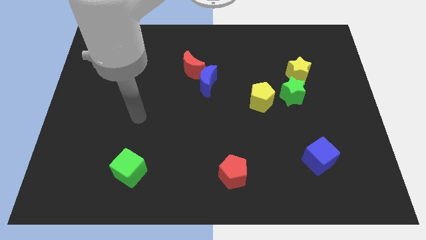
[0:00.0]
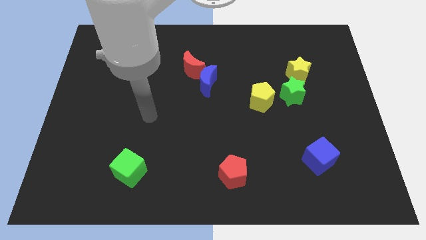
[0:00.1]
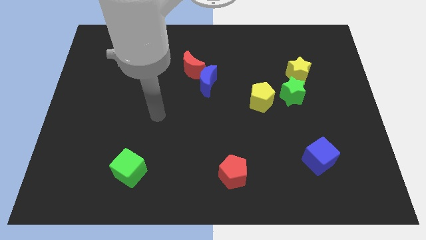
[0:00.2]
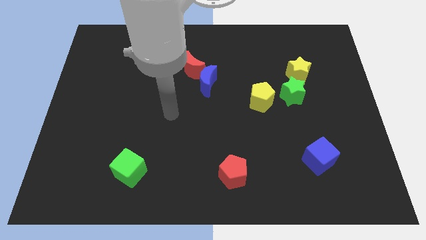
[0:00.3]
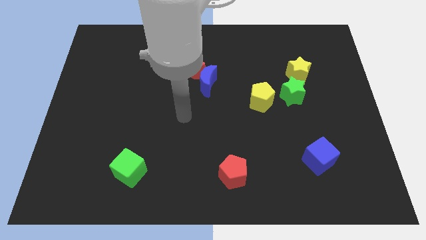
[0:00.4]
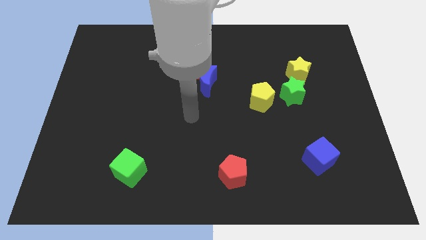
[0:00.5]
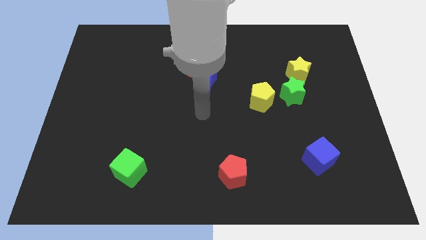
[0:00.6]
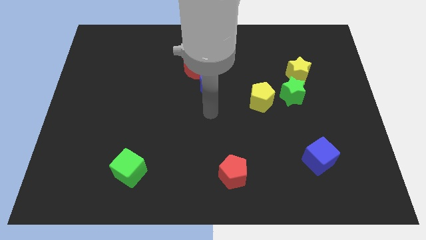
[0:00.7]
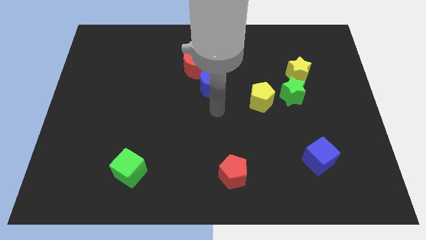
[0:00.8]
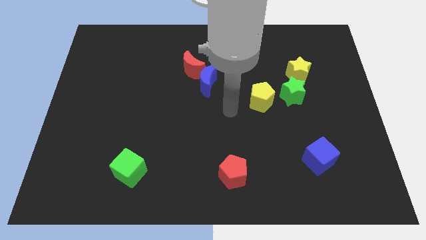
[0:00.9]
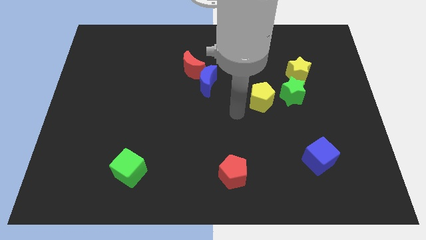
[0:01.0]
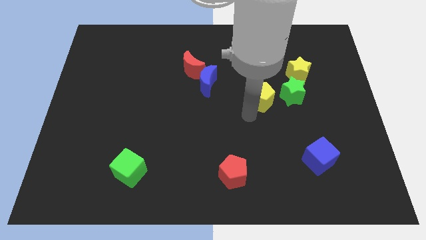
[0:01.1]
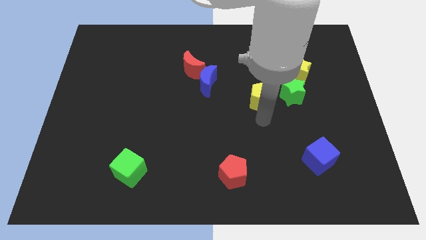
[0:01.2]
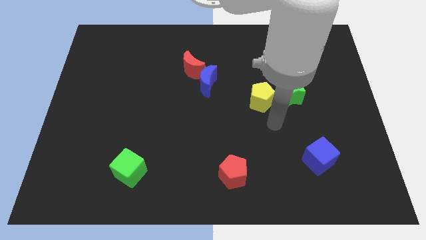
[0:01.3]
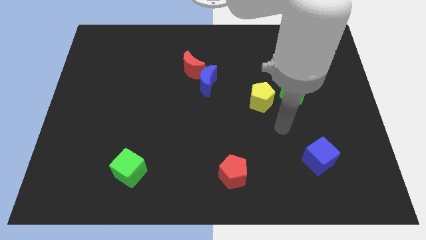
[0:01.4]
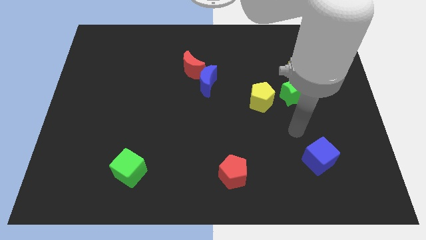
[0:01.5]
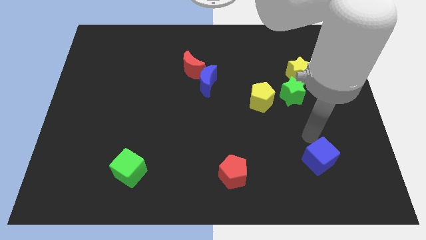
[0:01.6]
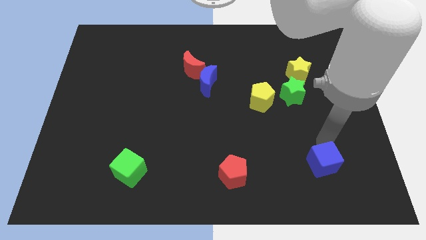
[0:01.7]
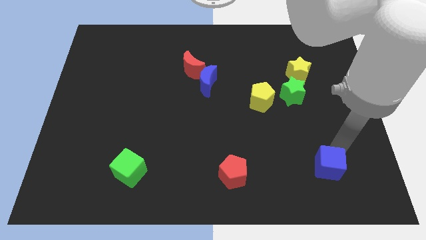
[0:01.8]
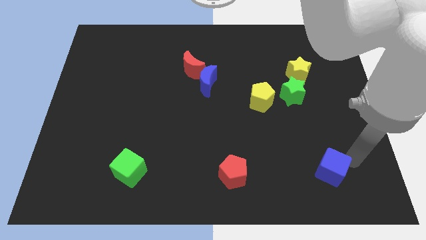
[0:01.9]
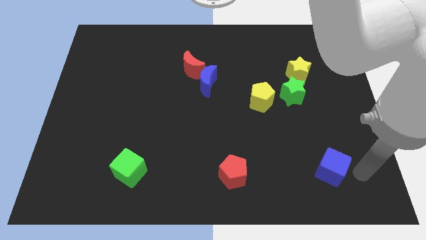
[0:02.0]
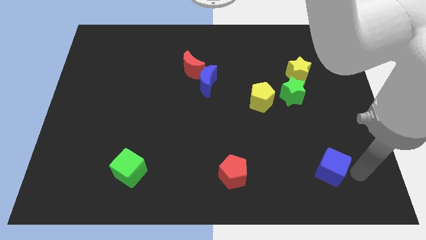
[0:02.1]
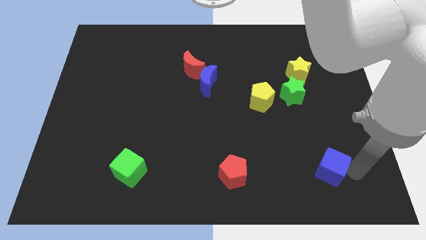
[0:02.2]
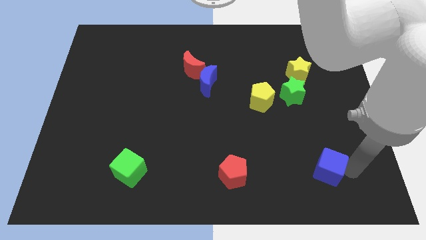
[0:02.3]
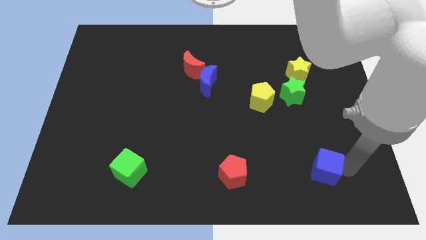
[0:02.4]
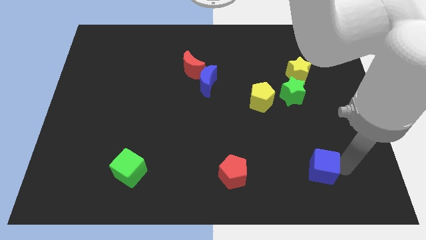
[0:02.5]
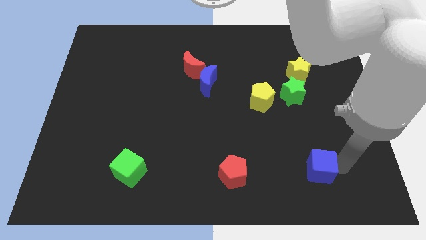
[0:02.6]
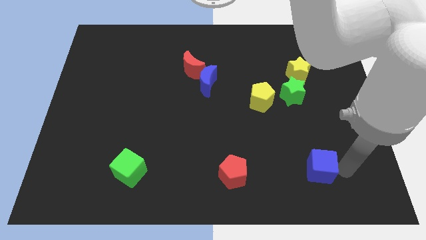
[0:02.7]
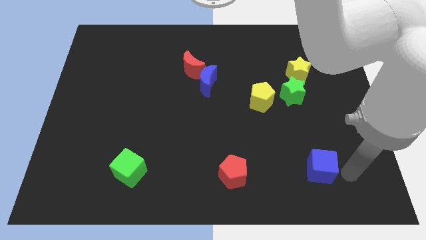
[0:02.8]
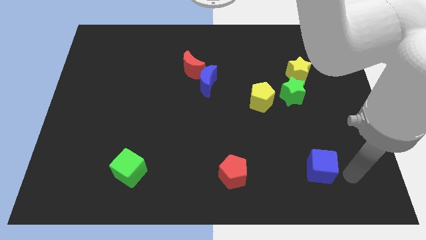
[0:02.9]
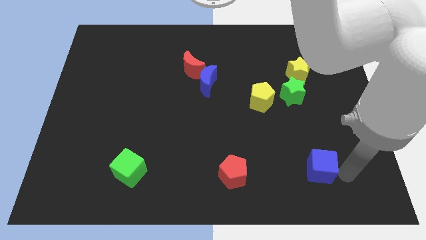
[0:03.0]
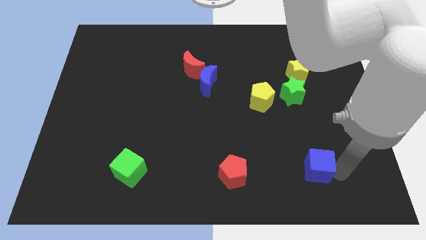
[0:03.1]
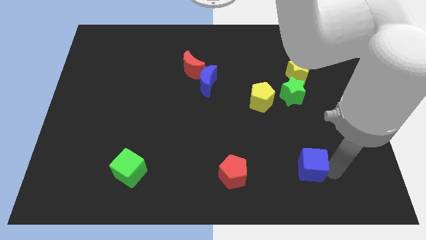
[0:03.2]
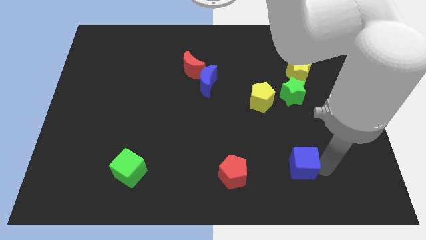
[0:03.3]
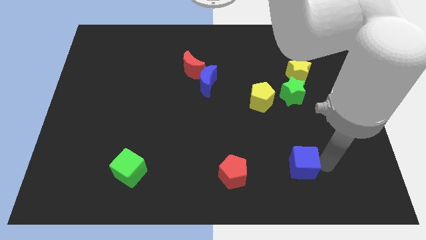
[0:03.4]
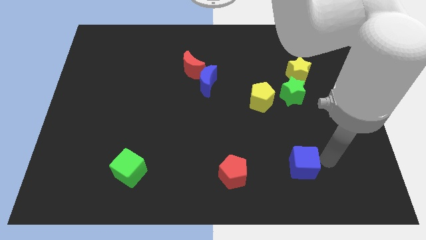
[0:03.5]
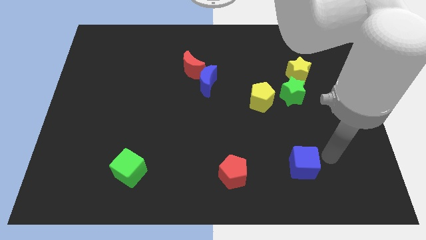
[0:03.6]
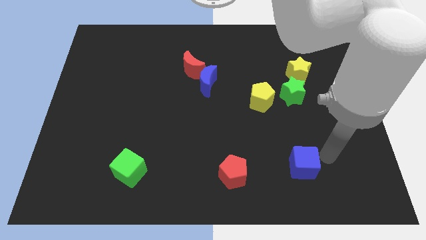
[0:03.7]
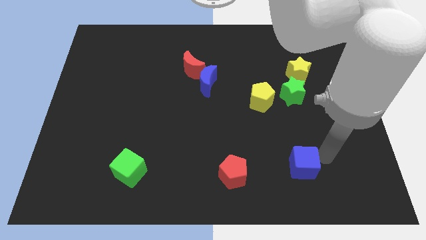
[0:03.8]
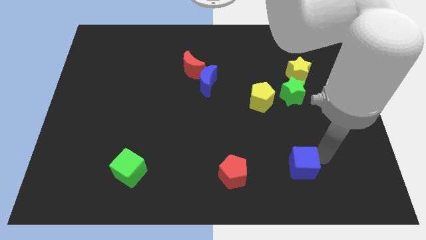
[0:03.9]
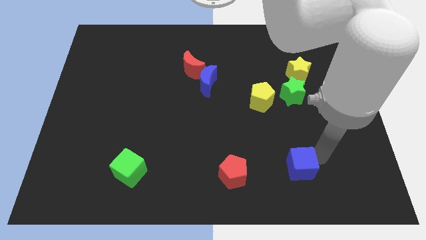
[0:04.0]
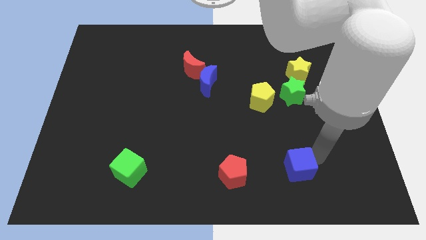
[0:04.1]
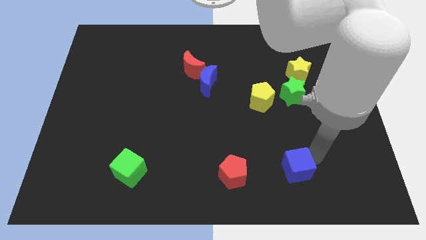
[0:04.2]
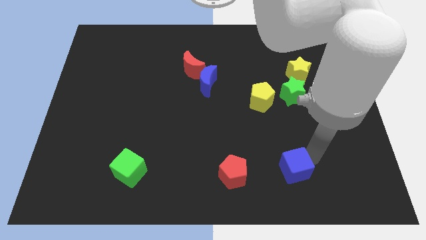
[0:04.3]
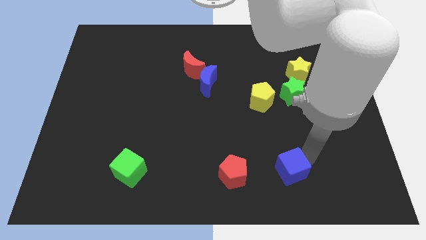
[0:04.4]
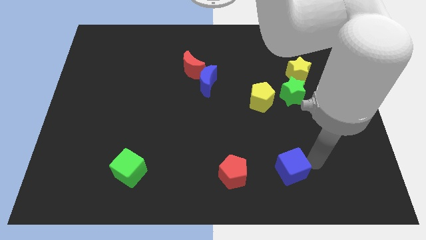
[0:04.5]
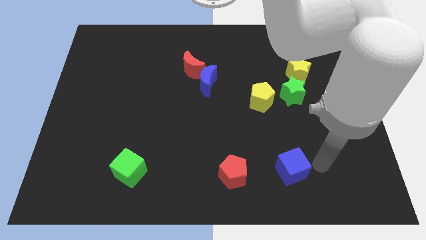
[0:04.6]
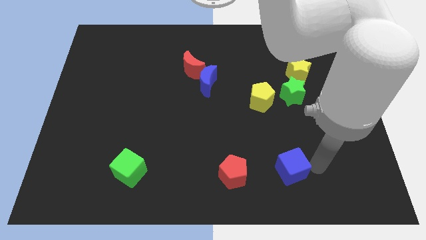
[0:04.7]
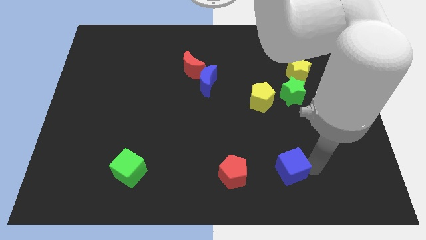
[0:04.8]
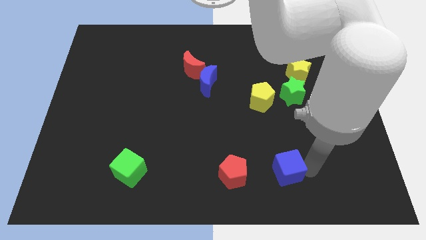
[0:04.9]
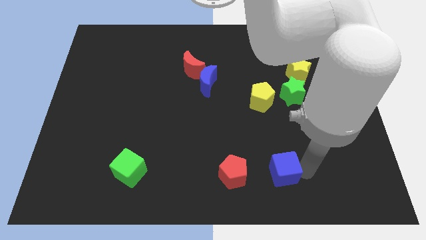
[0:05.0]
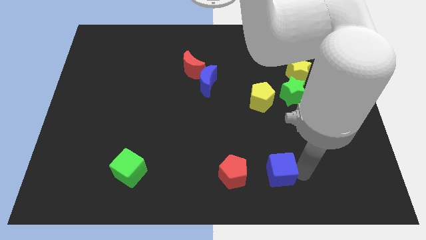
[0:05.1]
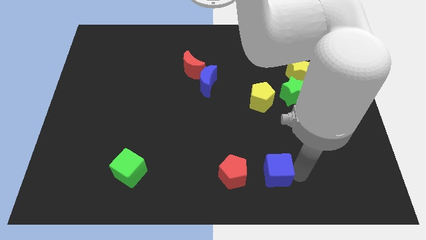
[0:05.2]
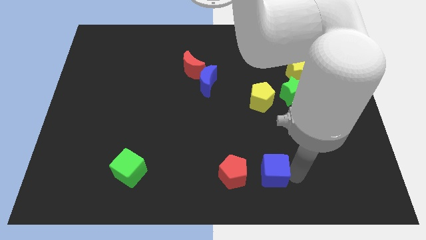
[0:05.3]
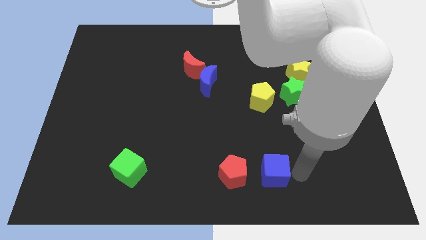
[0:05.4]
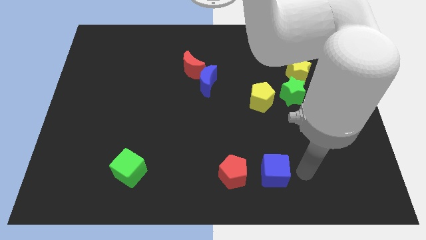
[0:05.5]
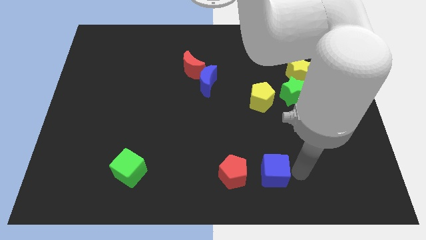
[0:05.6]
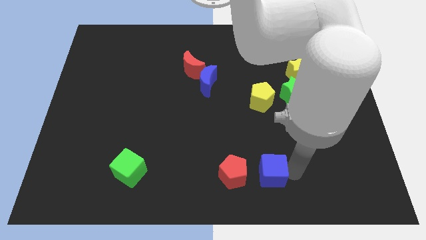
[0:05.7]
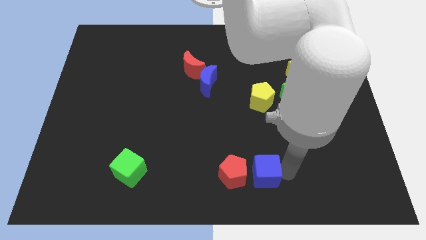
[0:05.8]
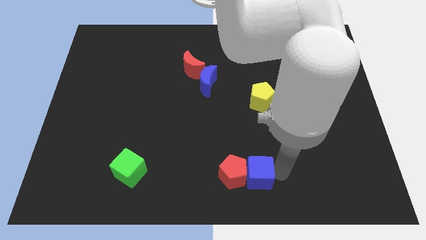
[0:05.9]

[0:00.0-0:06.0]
push the blue cube next to the red pentagon

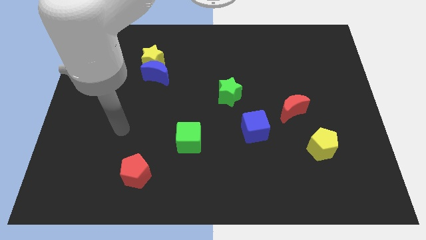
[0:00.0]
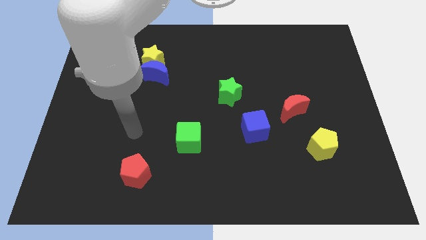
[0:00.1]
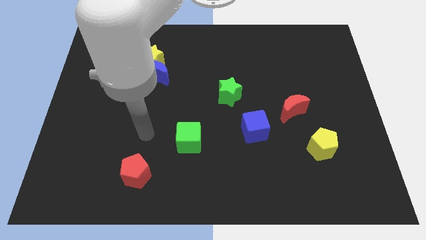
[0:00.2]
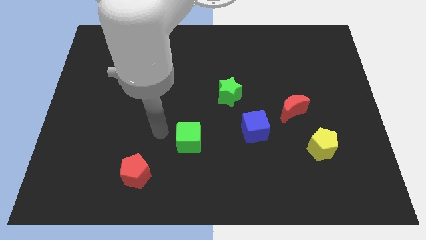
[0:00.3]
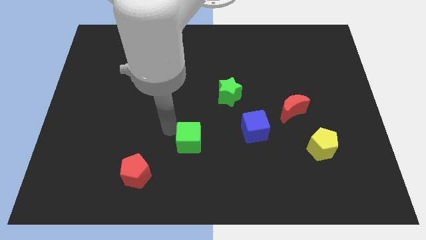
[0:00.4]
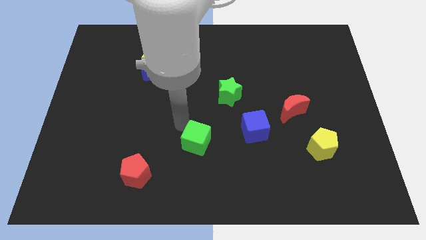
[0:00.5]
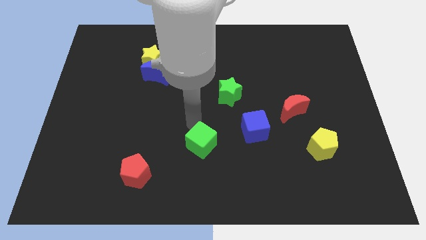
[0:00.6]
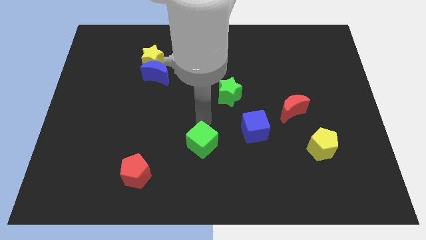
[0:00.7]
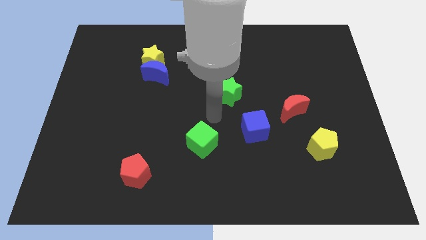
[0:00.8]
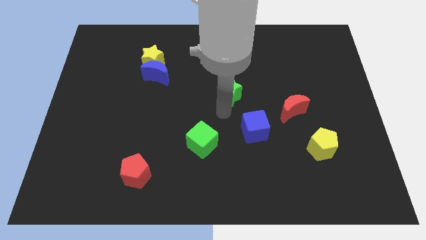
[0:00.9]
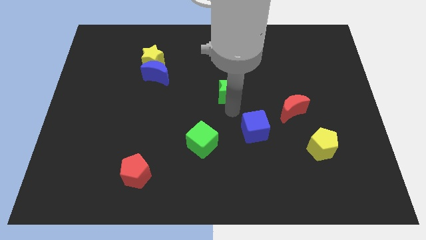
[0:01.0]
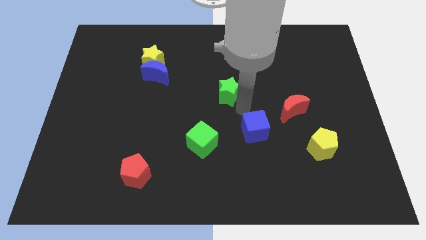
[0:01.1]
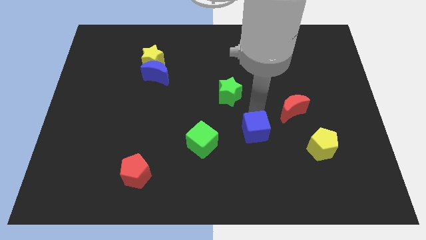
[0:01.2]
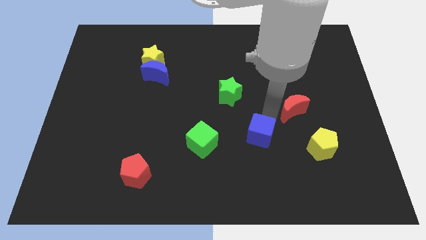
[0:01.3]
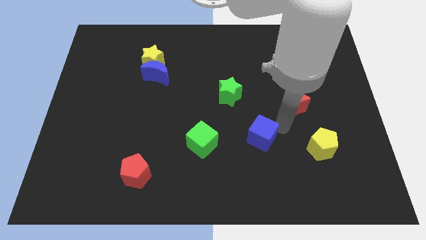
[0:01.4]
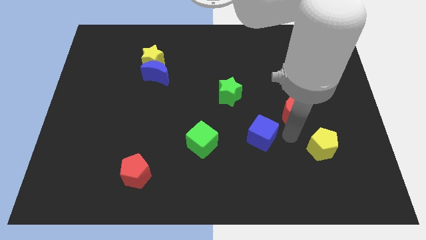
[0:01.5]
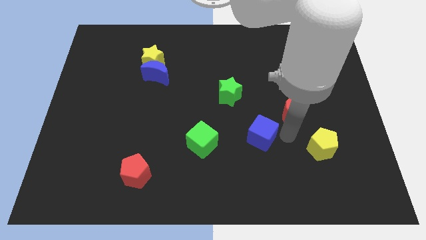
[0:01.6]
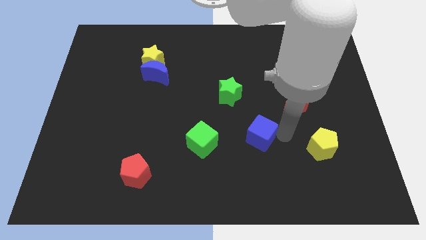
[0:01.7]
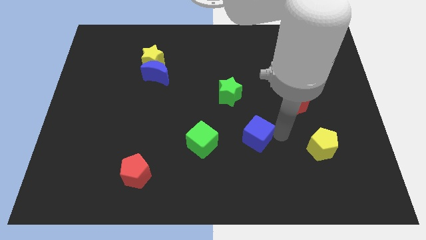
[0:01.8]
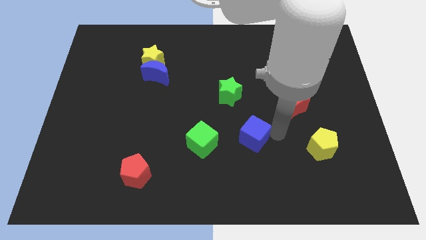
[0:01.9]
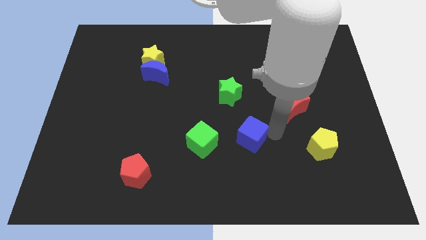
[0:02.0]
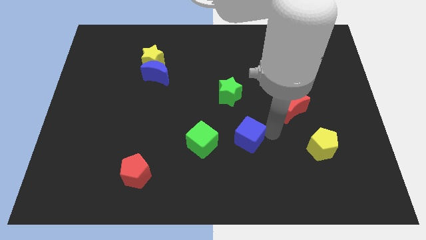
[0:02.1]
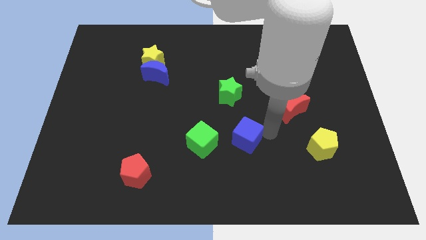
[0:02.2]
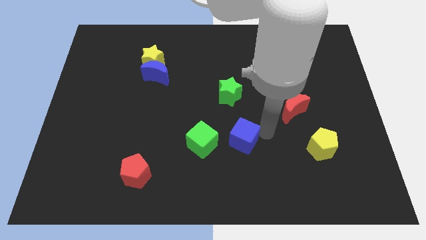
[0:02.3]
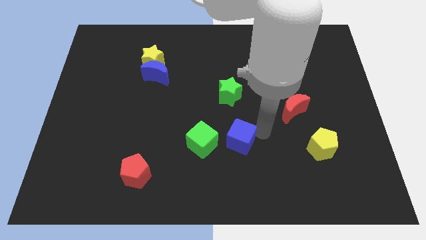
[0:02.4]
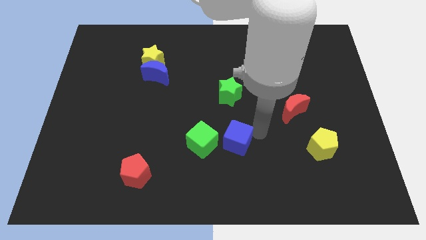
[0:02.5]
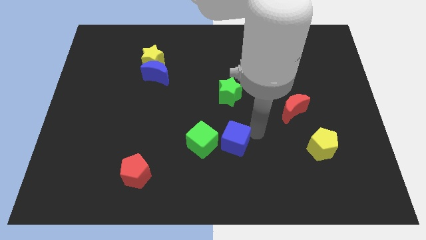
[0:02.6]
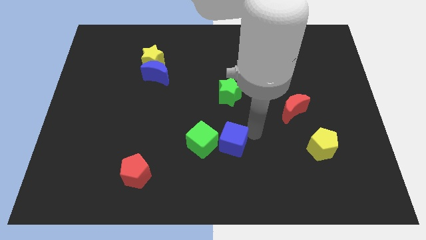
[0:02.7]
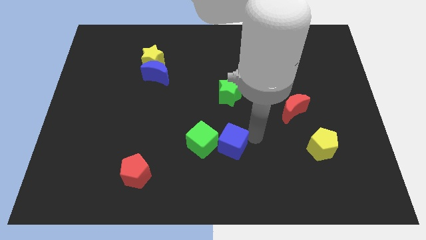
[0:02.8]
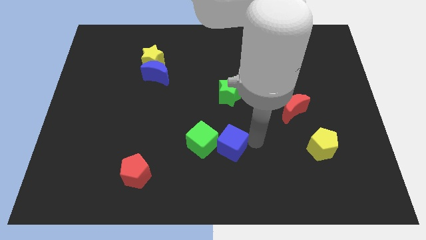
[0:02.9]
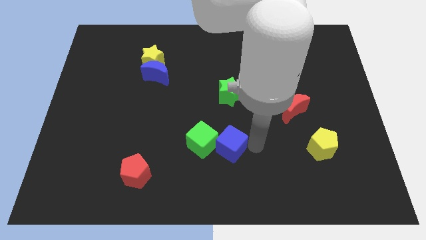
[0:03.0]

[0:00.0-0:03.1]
move the blue cube next to the green cube
